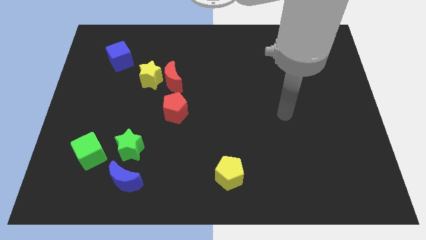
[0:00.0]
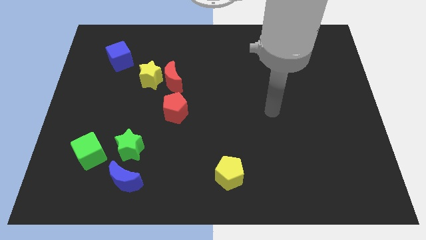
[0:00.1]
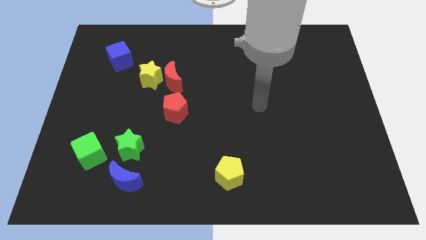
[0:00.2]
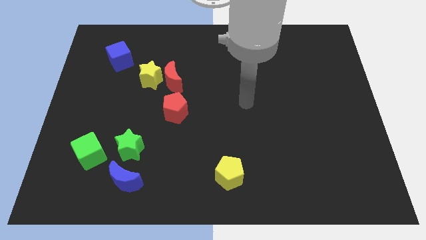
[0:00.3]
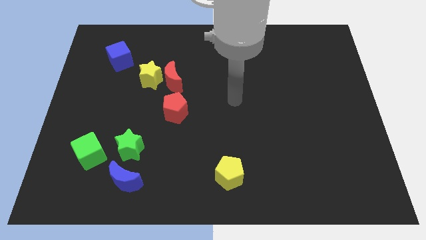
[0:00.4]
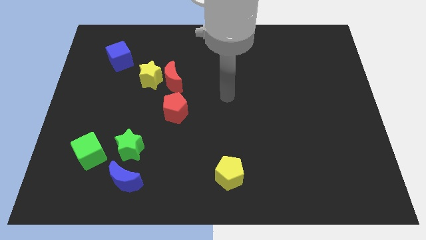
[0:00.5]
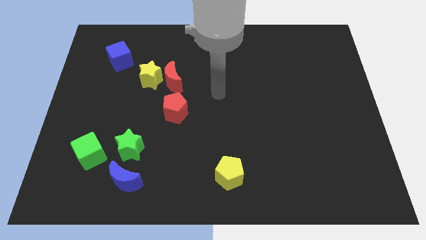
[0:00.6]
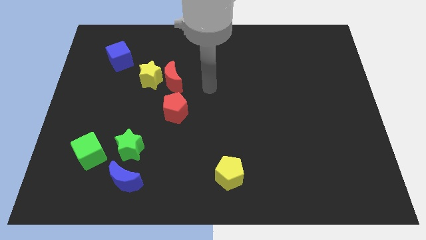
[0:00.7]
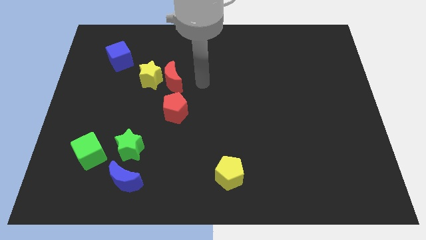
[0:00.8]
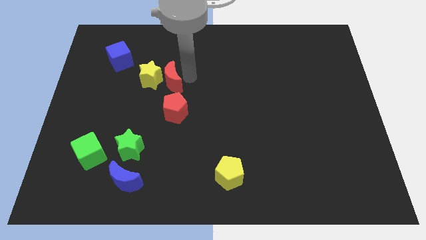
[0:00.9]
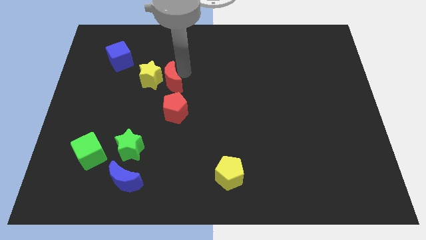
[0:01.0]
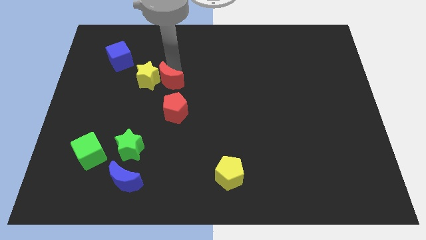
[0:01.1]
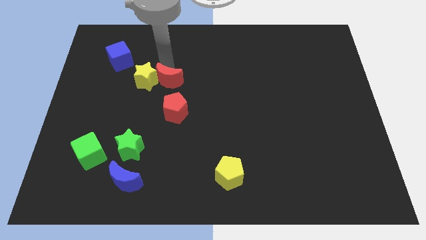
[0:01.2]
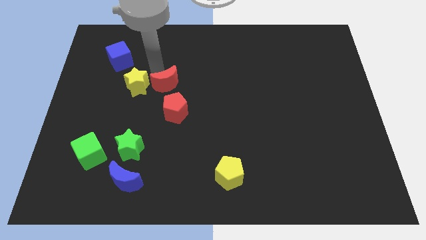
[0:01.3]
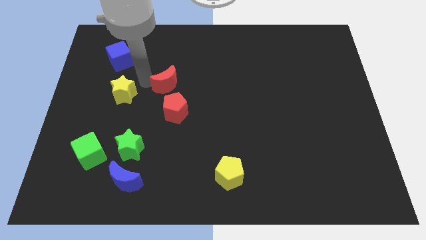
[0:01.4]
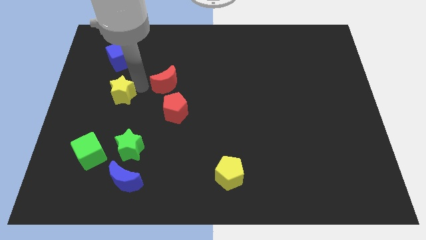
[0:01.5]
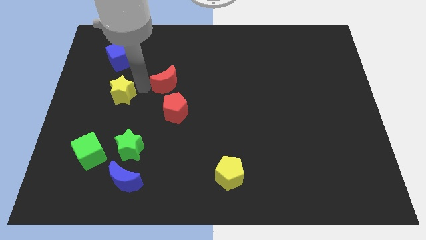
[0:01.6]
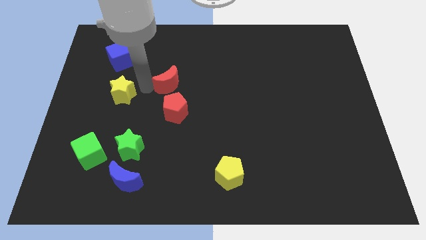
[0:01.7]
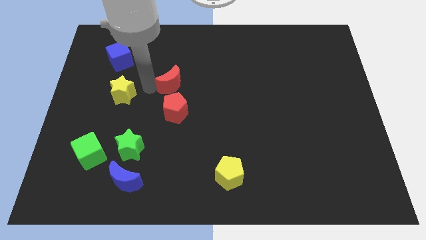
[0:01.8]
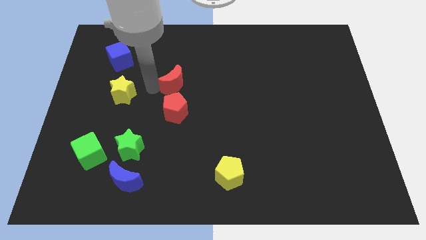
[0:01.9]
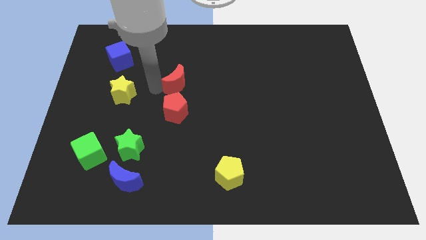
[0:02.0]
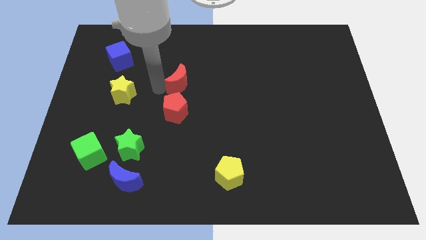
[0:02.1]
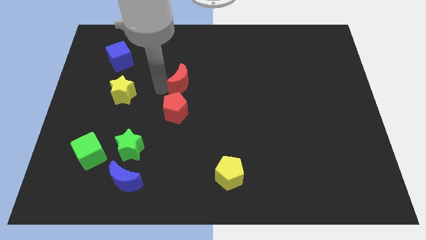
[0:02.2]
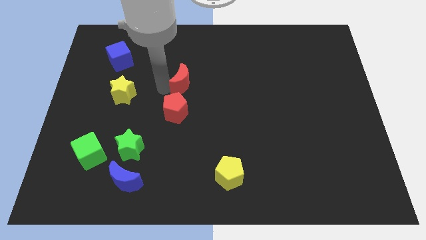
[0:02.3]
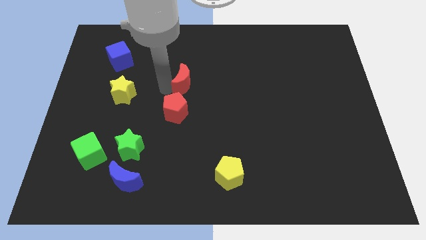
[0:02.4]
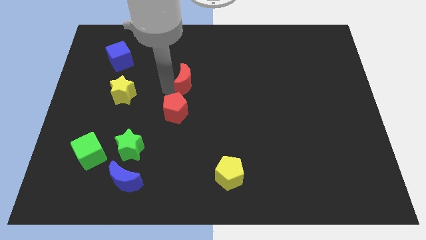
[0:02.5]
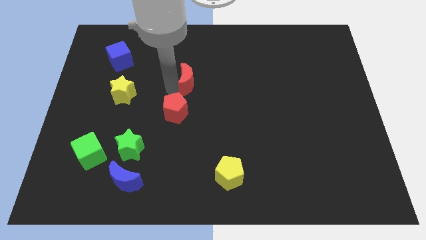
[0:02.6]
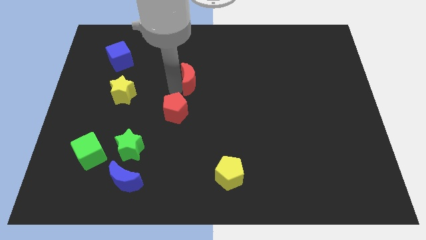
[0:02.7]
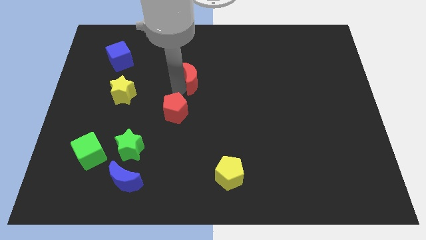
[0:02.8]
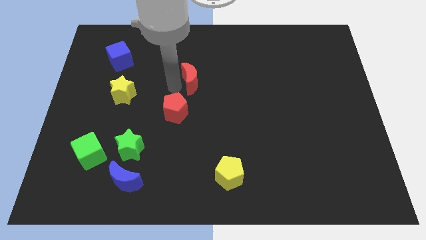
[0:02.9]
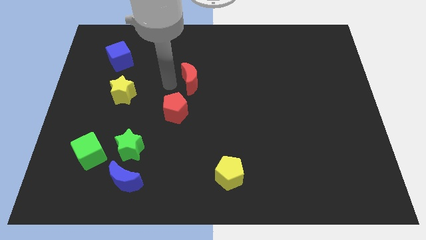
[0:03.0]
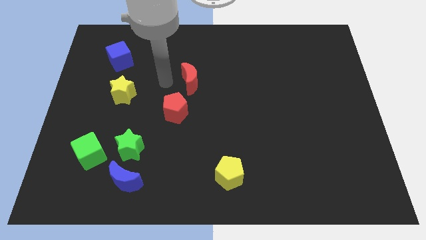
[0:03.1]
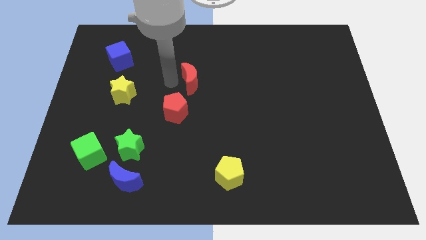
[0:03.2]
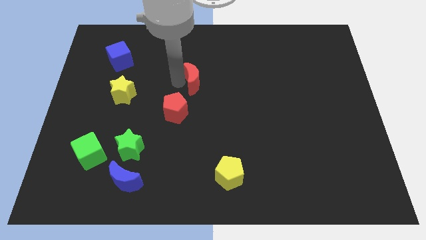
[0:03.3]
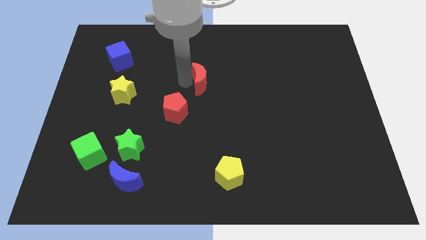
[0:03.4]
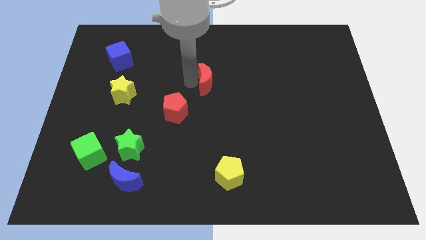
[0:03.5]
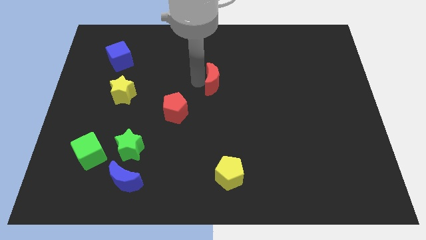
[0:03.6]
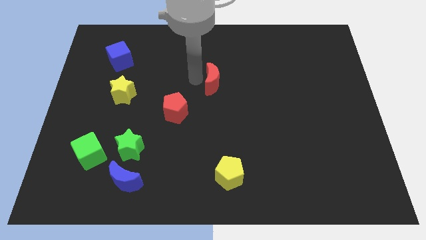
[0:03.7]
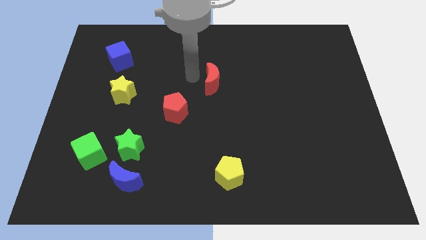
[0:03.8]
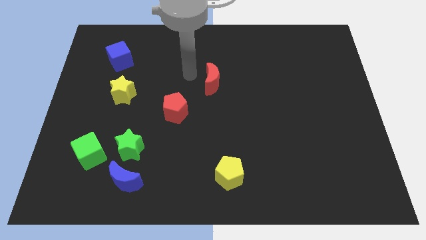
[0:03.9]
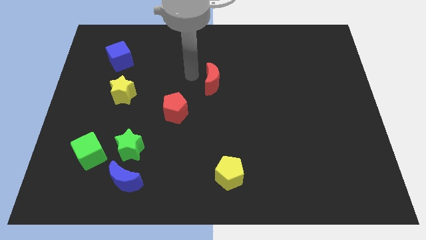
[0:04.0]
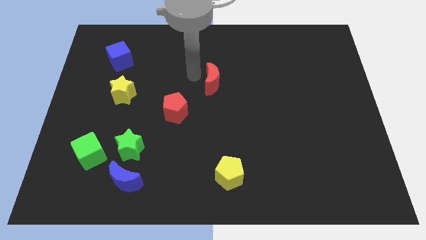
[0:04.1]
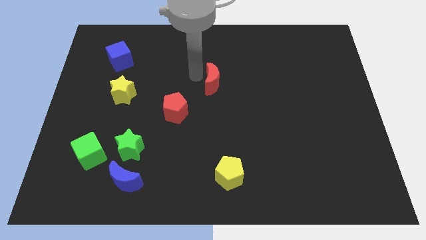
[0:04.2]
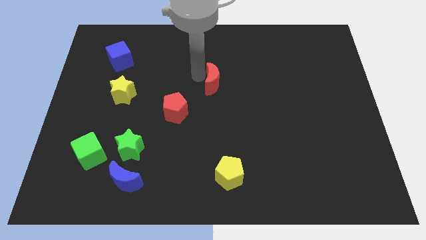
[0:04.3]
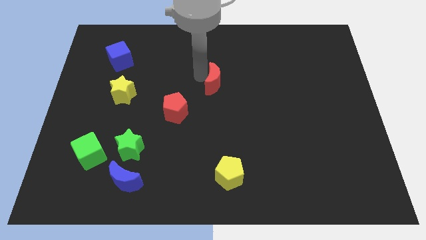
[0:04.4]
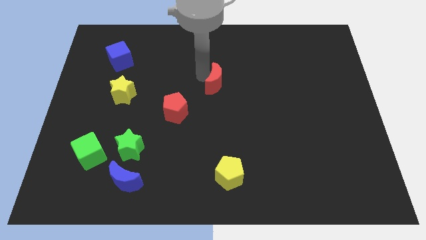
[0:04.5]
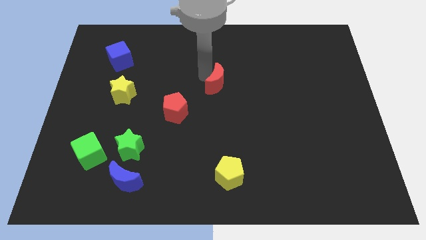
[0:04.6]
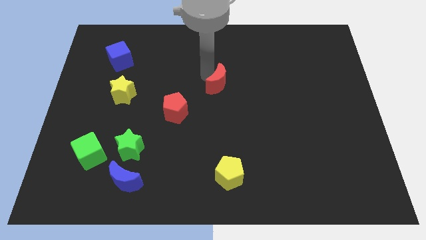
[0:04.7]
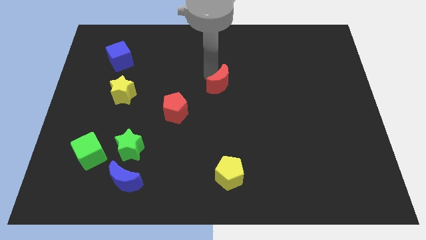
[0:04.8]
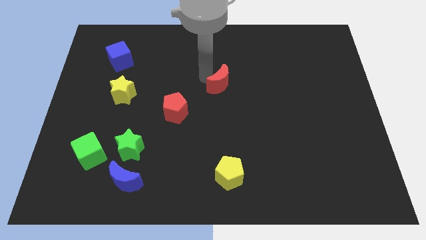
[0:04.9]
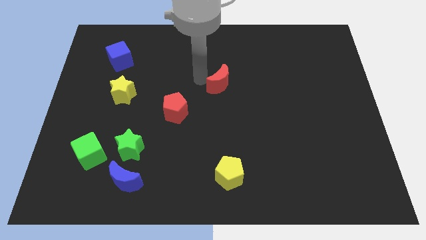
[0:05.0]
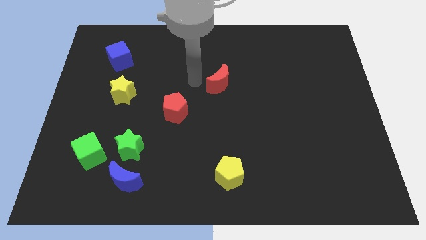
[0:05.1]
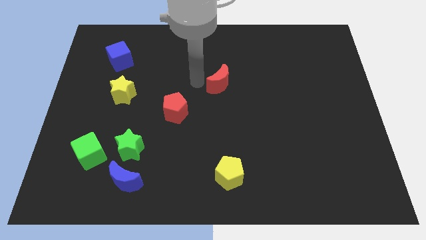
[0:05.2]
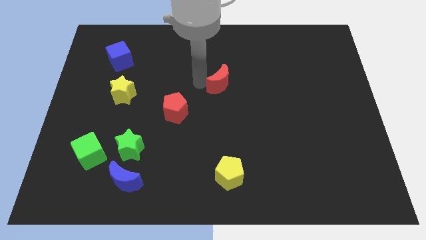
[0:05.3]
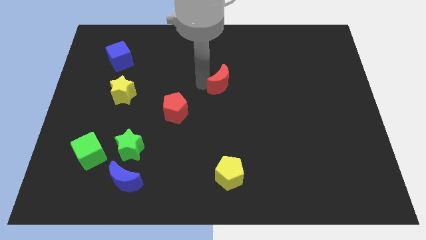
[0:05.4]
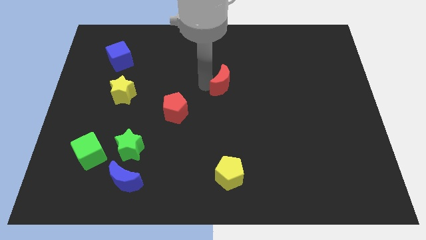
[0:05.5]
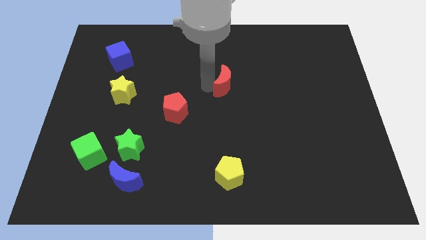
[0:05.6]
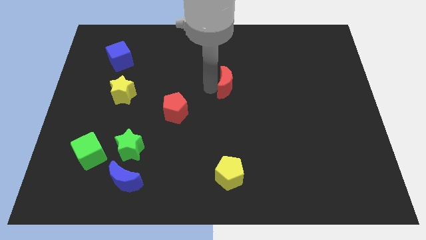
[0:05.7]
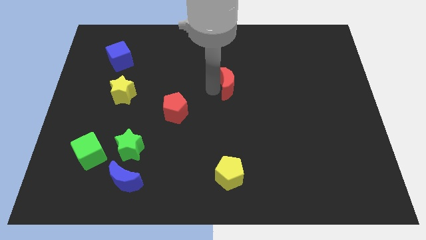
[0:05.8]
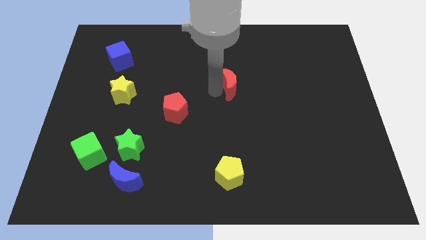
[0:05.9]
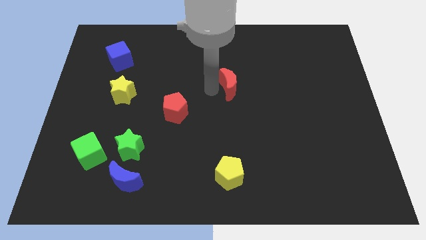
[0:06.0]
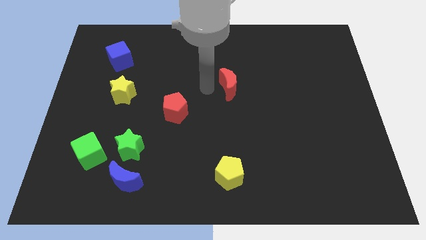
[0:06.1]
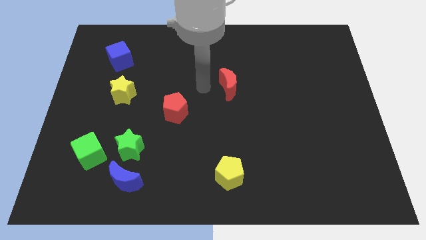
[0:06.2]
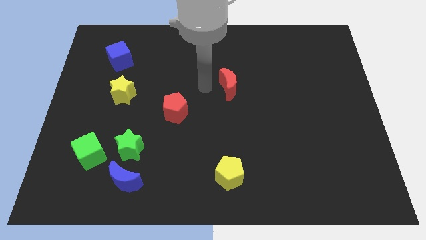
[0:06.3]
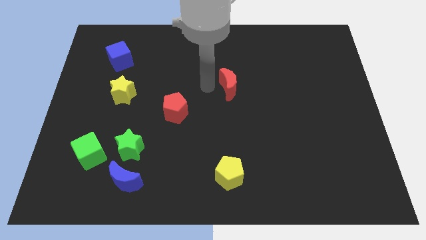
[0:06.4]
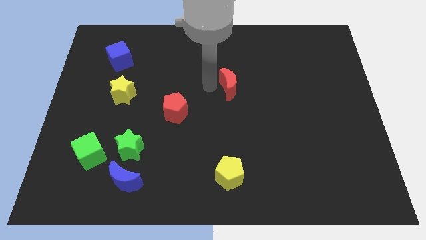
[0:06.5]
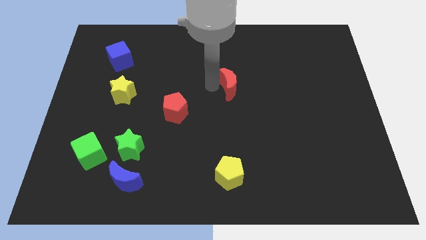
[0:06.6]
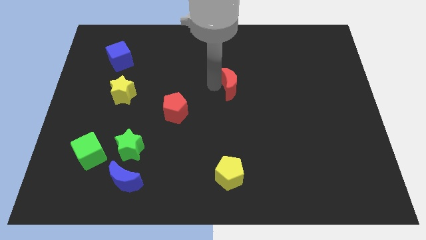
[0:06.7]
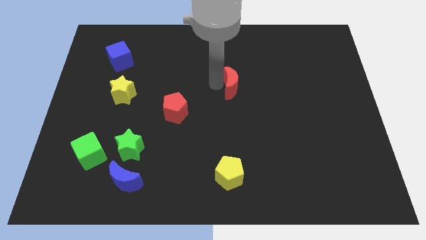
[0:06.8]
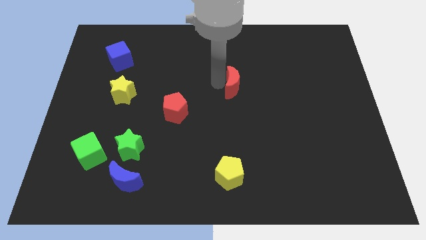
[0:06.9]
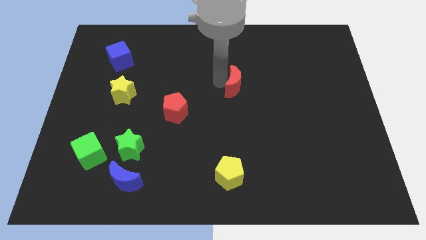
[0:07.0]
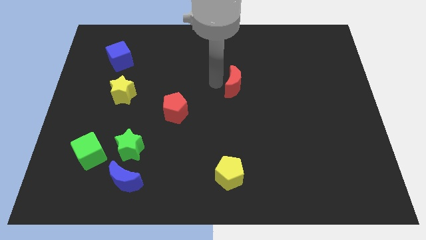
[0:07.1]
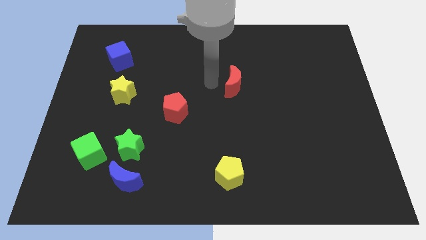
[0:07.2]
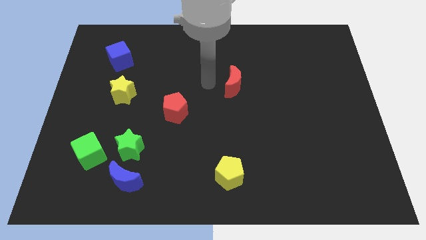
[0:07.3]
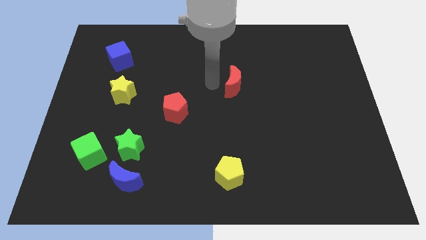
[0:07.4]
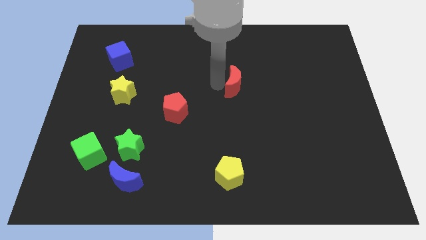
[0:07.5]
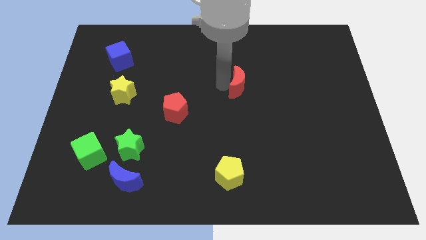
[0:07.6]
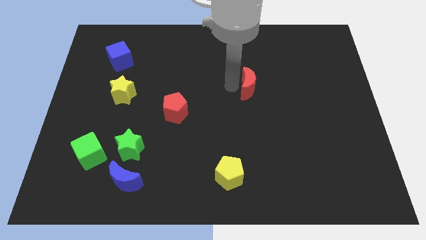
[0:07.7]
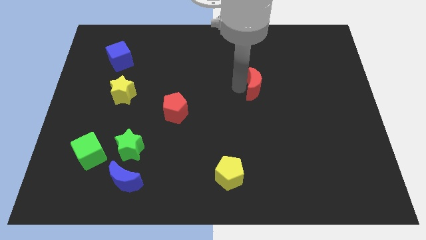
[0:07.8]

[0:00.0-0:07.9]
move the red moon to the right

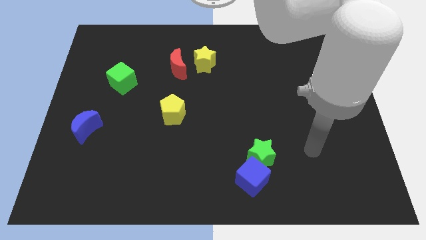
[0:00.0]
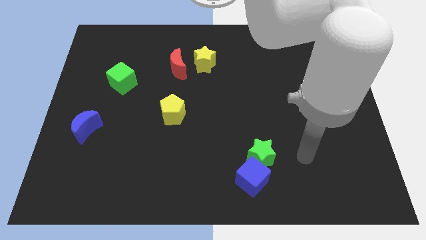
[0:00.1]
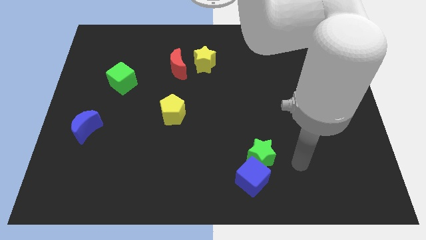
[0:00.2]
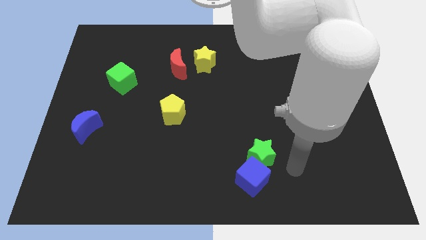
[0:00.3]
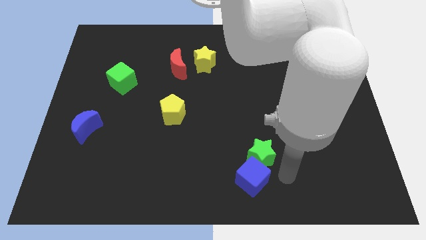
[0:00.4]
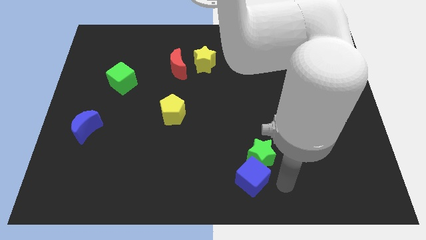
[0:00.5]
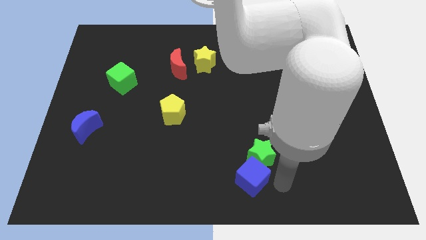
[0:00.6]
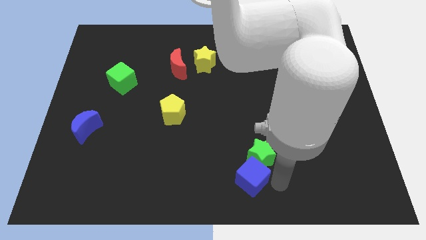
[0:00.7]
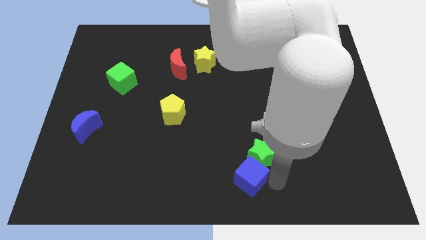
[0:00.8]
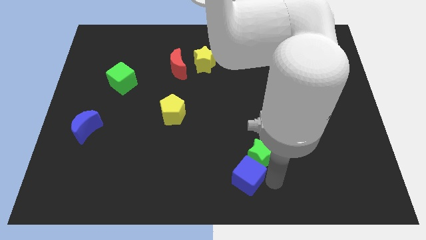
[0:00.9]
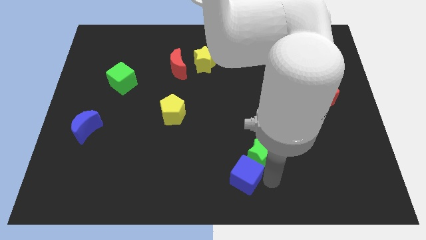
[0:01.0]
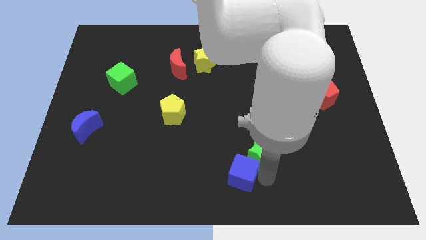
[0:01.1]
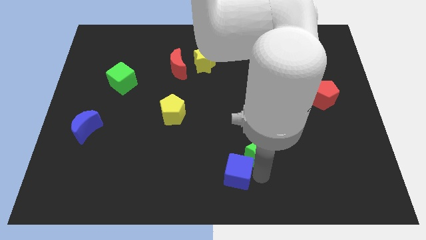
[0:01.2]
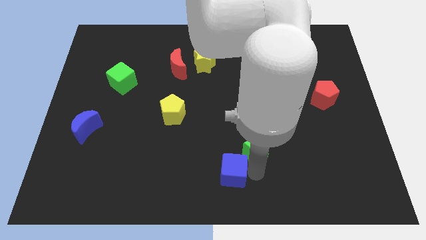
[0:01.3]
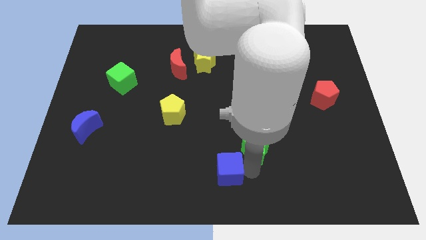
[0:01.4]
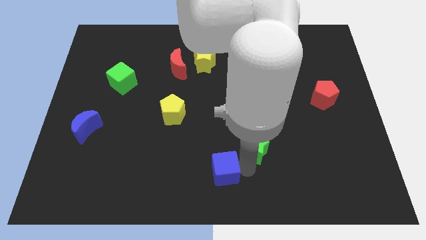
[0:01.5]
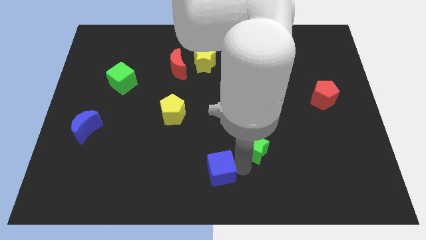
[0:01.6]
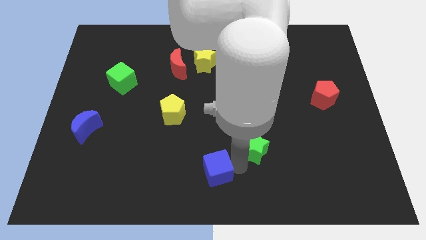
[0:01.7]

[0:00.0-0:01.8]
move the blue cube to the left a bit
